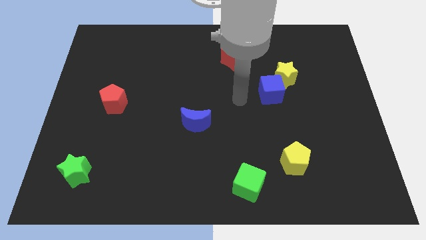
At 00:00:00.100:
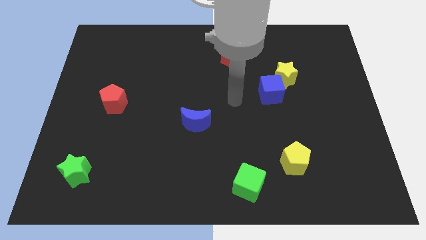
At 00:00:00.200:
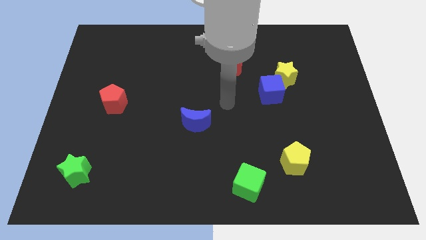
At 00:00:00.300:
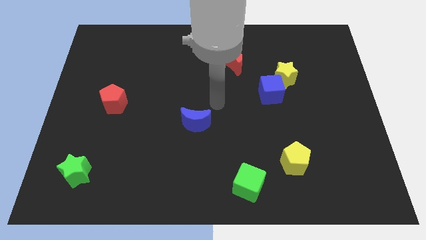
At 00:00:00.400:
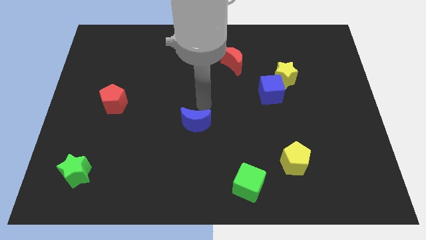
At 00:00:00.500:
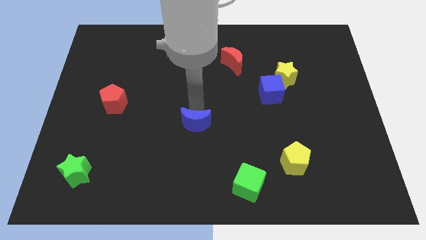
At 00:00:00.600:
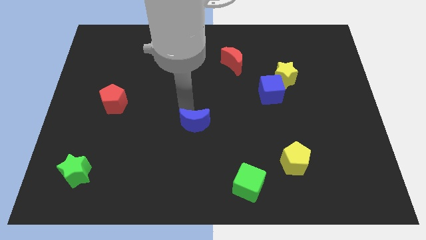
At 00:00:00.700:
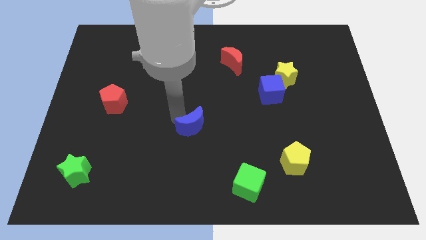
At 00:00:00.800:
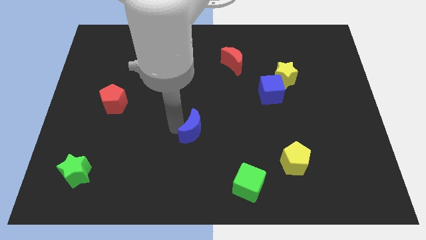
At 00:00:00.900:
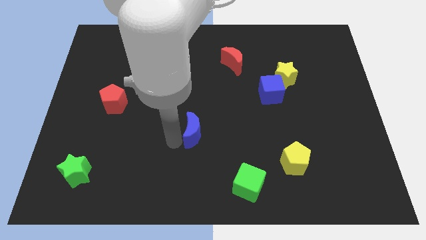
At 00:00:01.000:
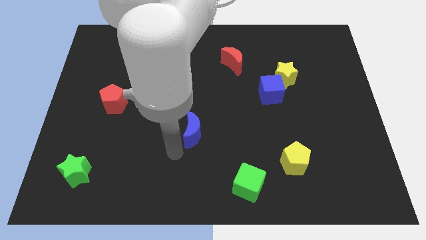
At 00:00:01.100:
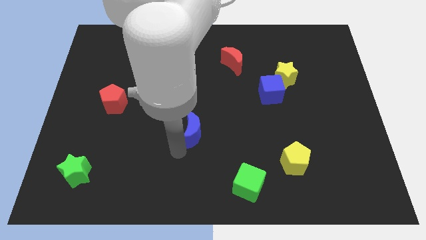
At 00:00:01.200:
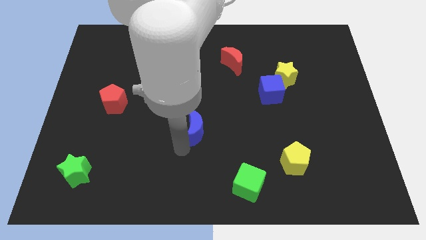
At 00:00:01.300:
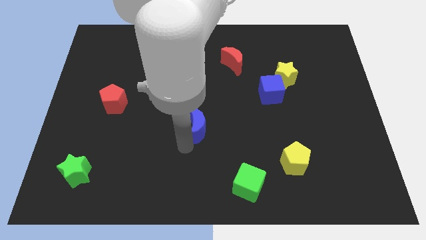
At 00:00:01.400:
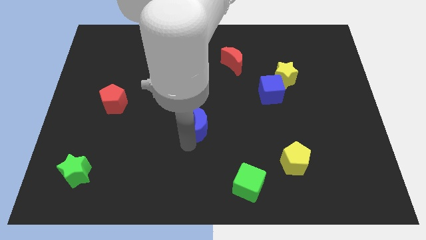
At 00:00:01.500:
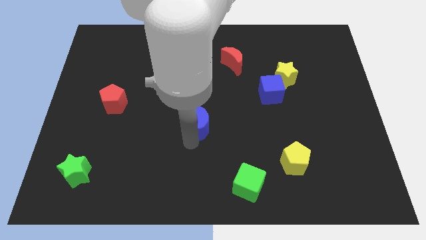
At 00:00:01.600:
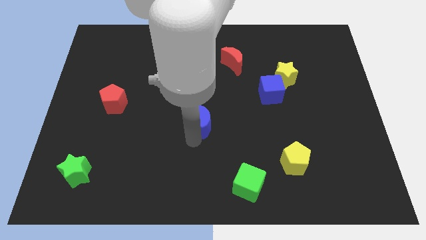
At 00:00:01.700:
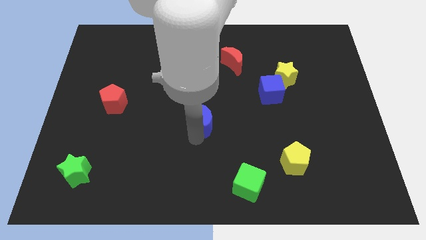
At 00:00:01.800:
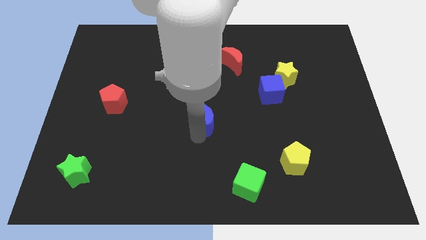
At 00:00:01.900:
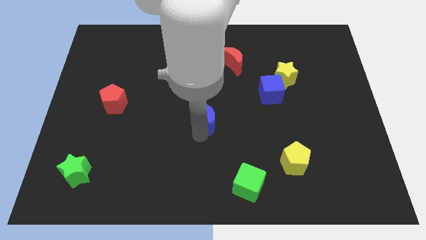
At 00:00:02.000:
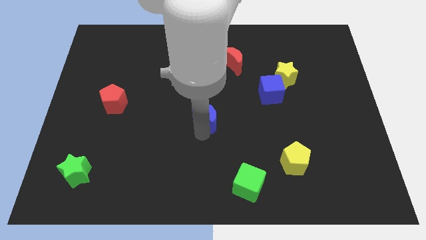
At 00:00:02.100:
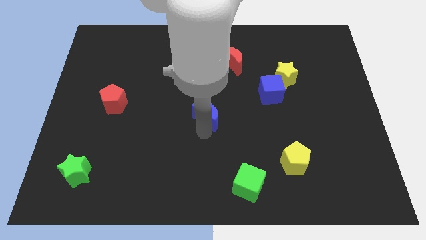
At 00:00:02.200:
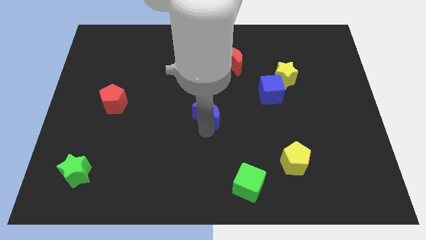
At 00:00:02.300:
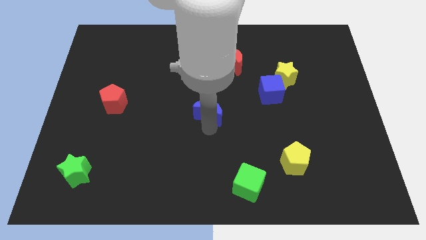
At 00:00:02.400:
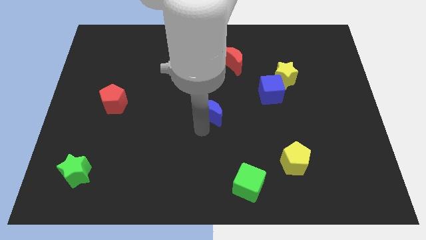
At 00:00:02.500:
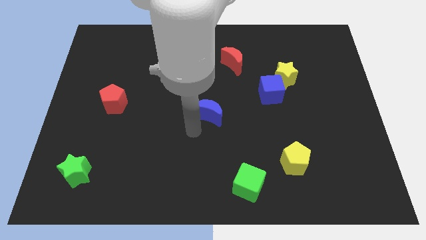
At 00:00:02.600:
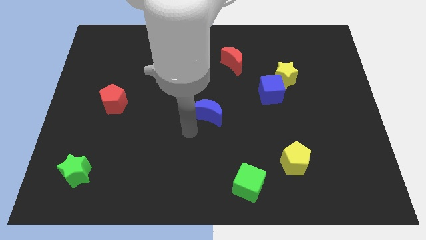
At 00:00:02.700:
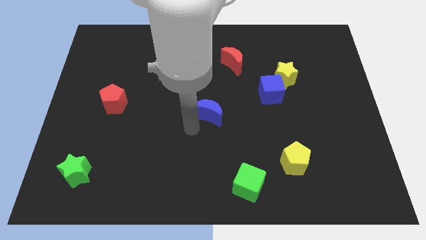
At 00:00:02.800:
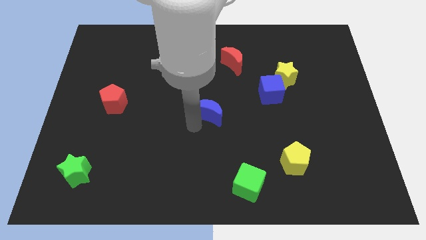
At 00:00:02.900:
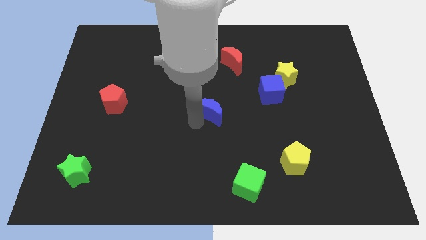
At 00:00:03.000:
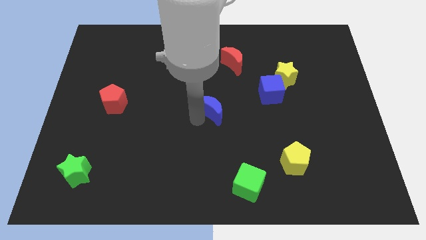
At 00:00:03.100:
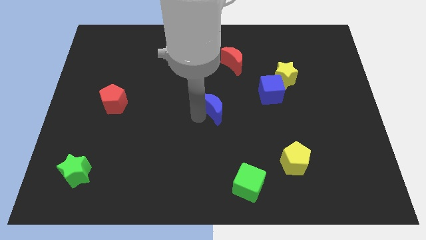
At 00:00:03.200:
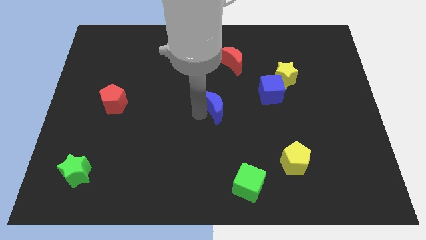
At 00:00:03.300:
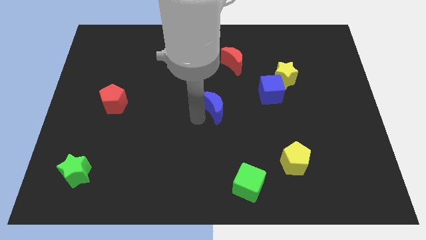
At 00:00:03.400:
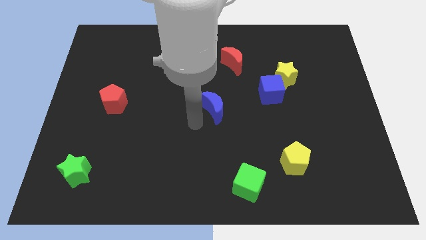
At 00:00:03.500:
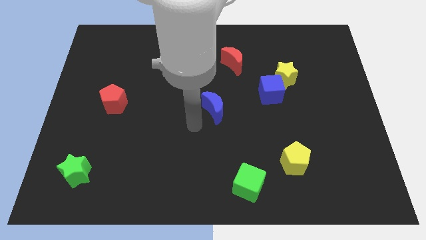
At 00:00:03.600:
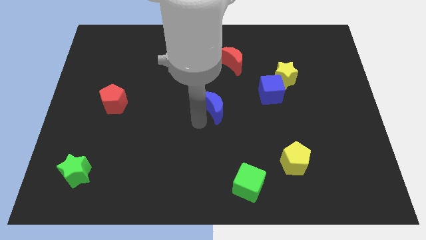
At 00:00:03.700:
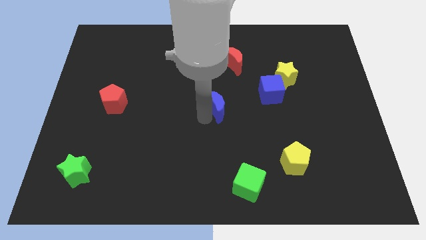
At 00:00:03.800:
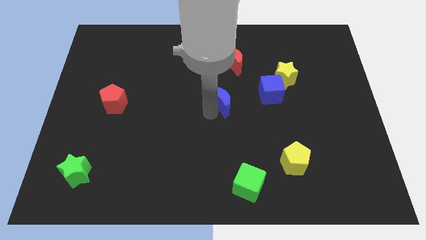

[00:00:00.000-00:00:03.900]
slide the blue moon a bit upwards and to the right

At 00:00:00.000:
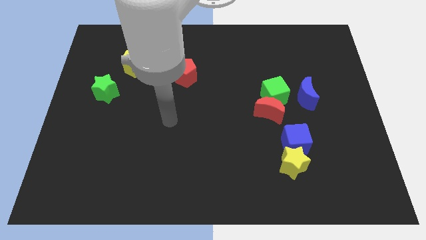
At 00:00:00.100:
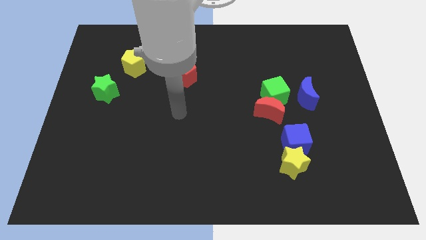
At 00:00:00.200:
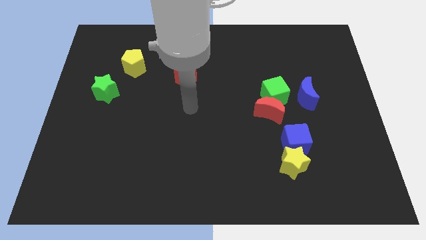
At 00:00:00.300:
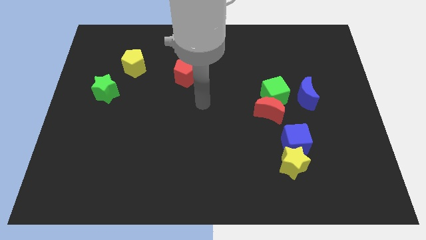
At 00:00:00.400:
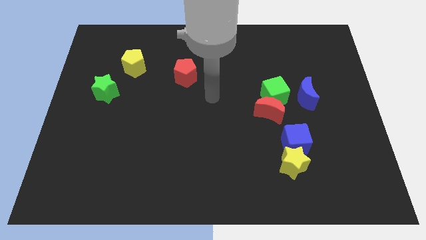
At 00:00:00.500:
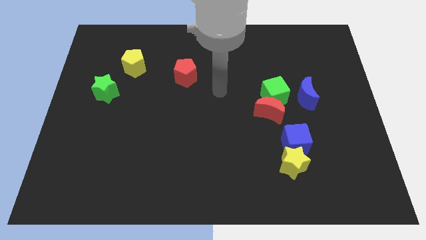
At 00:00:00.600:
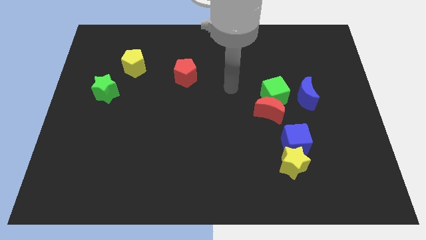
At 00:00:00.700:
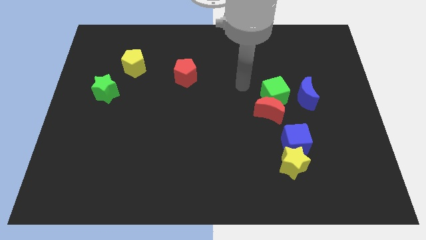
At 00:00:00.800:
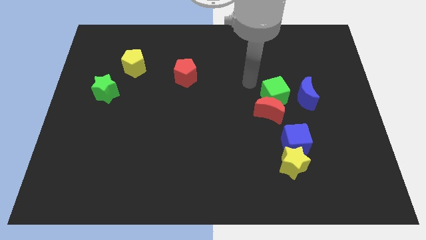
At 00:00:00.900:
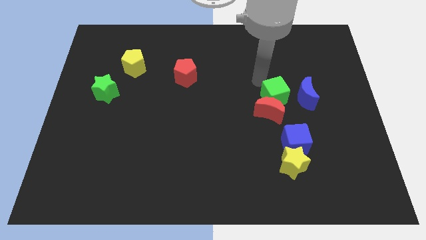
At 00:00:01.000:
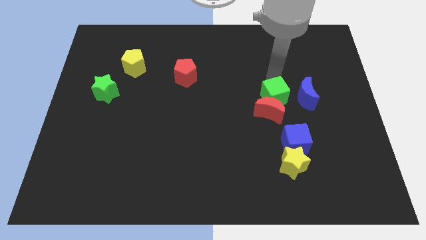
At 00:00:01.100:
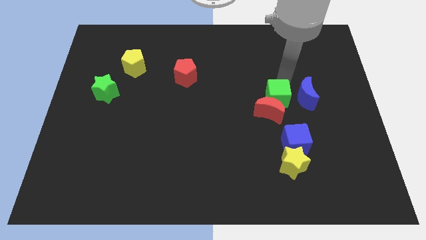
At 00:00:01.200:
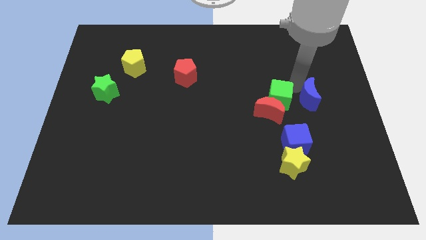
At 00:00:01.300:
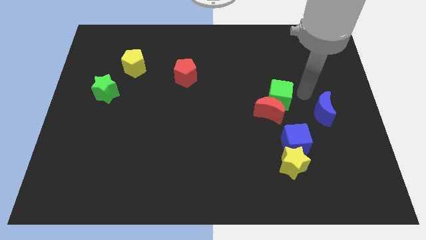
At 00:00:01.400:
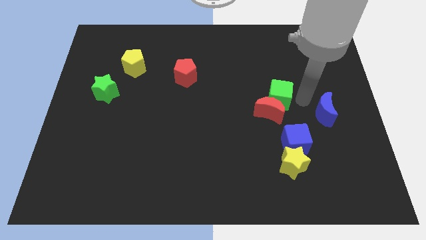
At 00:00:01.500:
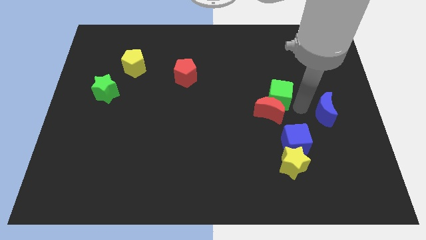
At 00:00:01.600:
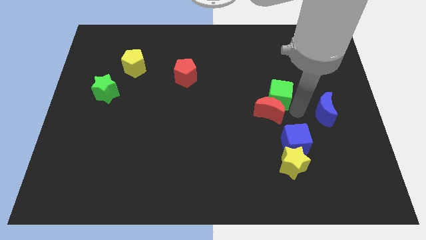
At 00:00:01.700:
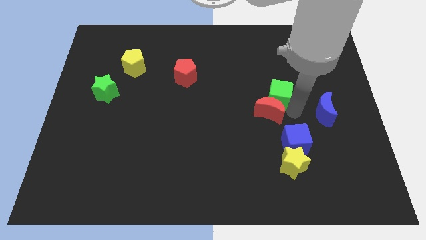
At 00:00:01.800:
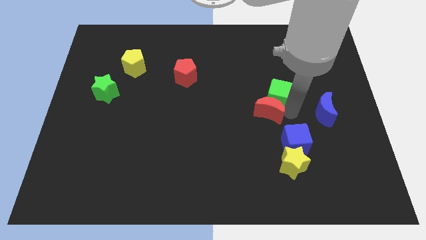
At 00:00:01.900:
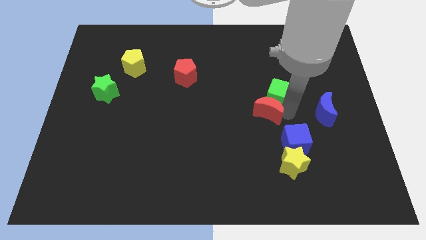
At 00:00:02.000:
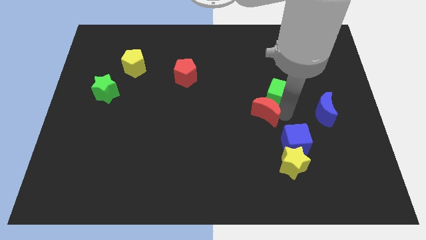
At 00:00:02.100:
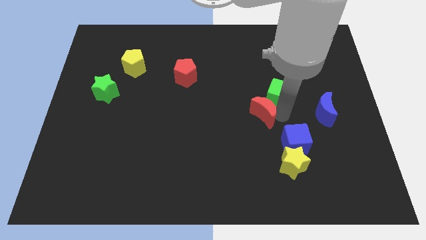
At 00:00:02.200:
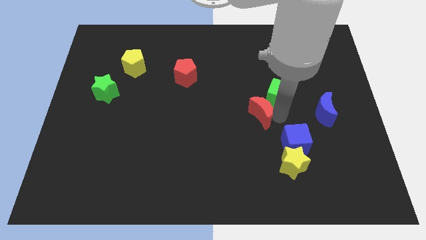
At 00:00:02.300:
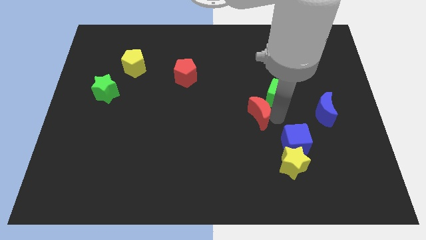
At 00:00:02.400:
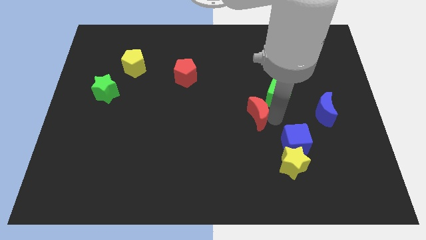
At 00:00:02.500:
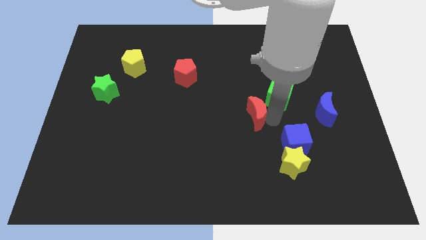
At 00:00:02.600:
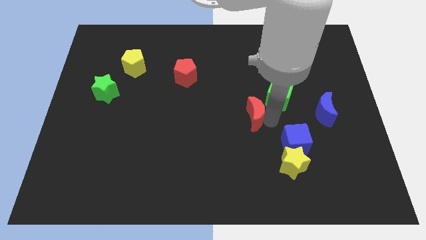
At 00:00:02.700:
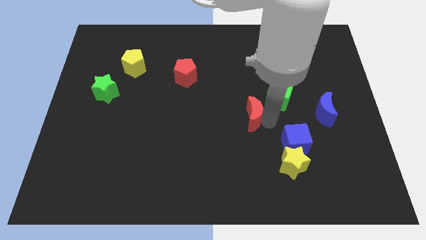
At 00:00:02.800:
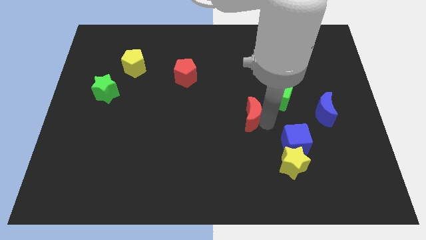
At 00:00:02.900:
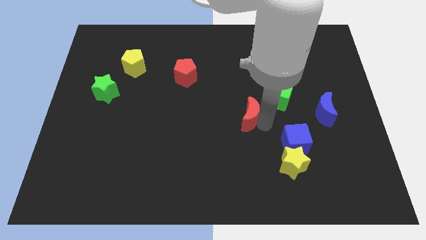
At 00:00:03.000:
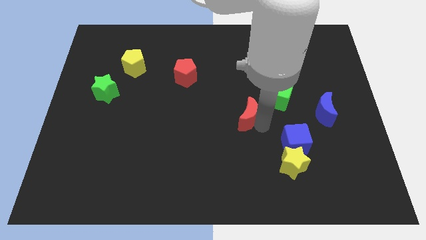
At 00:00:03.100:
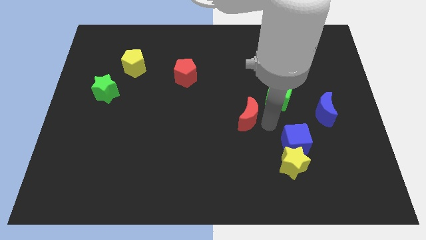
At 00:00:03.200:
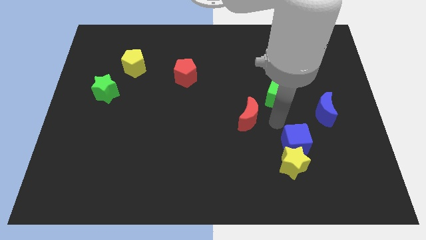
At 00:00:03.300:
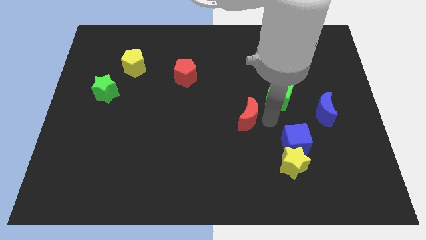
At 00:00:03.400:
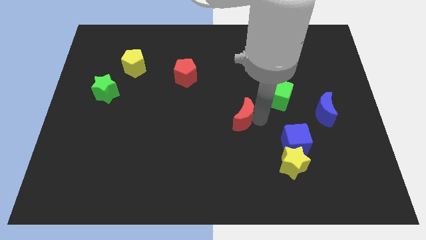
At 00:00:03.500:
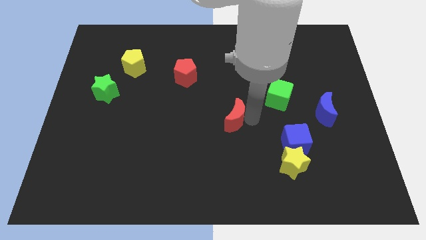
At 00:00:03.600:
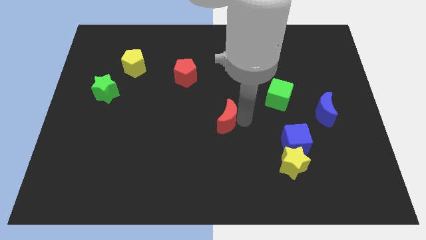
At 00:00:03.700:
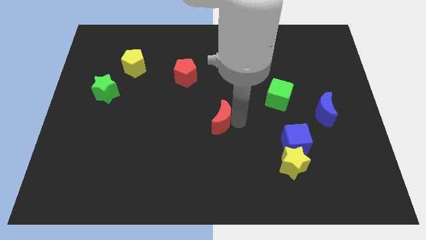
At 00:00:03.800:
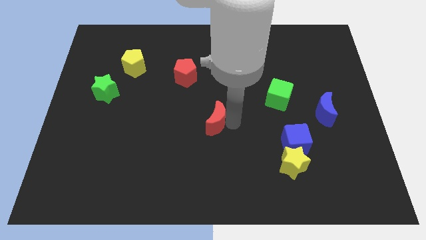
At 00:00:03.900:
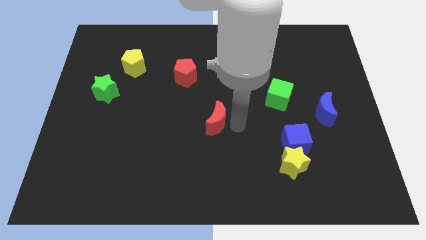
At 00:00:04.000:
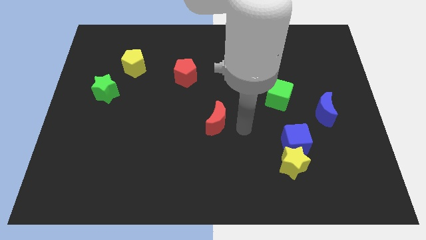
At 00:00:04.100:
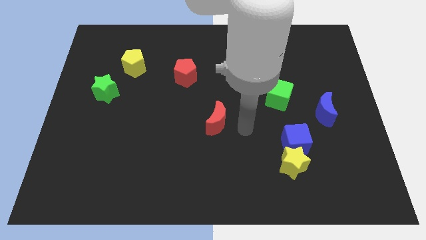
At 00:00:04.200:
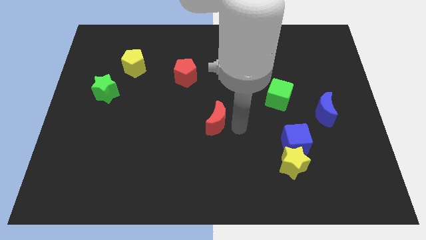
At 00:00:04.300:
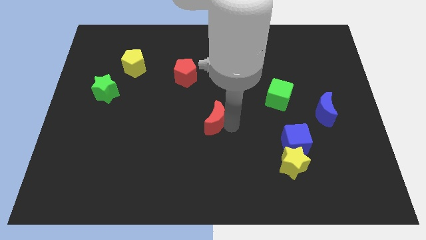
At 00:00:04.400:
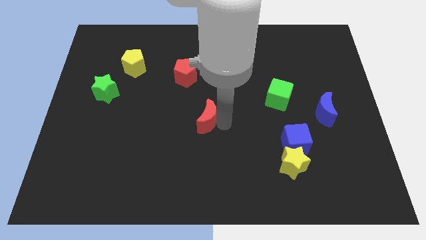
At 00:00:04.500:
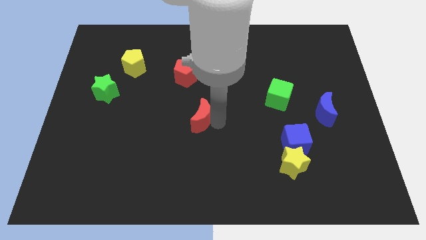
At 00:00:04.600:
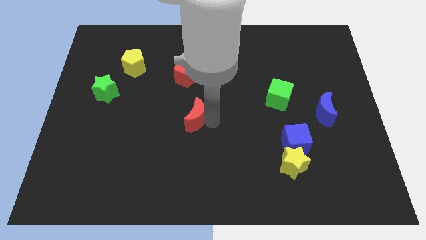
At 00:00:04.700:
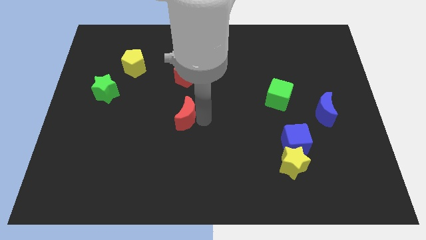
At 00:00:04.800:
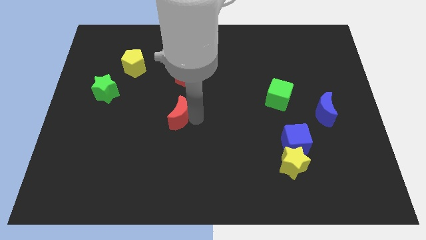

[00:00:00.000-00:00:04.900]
move the red moon to the left
